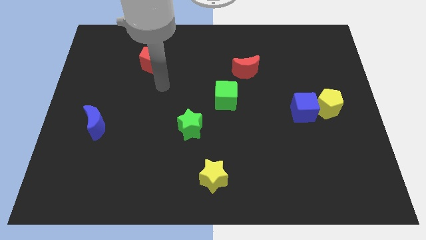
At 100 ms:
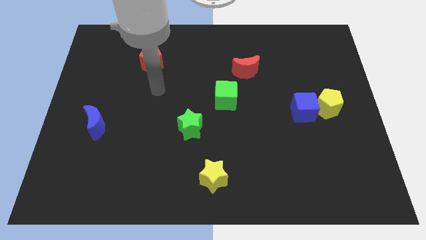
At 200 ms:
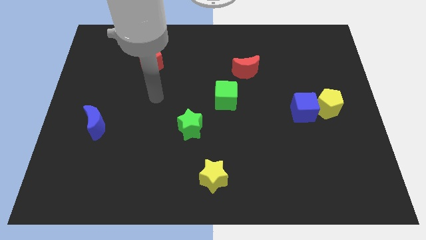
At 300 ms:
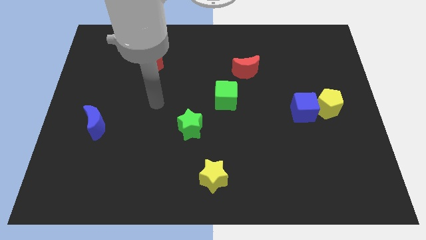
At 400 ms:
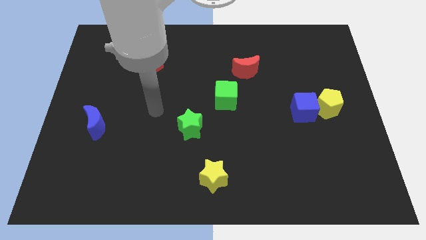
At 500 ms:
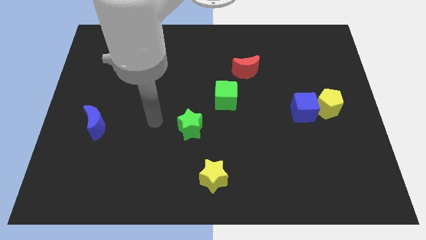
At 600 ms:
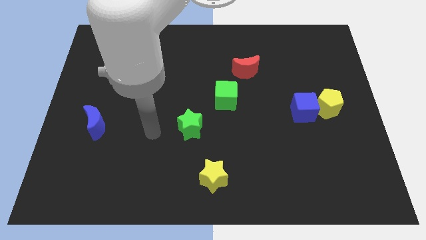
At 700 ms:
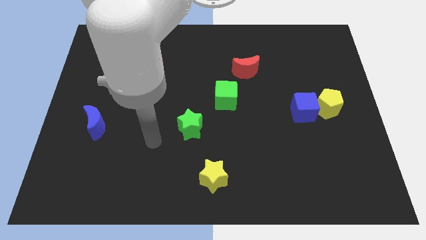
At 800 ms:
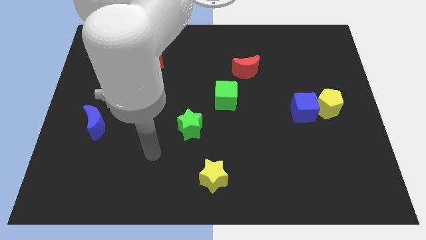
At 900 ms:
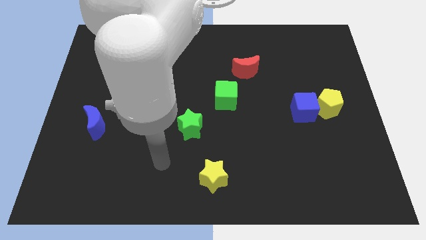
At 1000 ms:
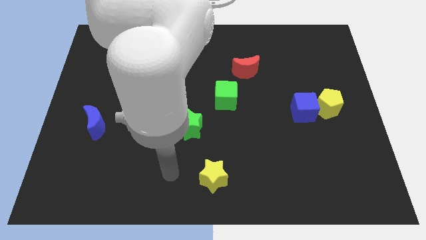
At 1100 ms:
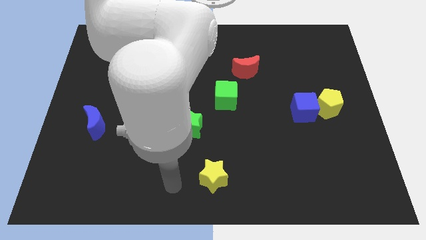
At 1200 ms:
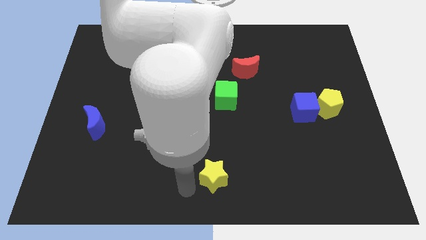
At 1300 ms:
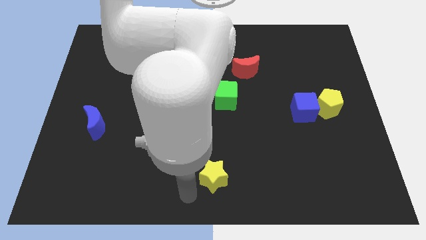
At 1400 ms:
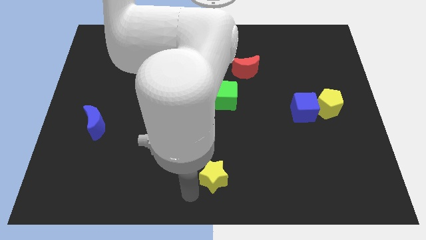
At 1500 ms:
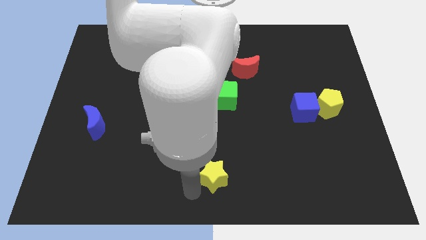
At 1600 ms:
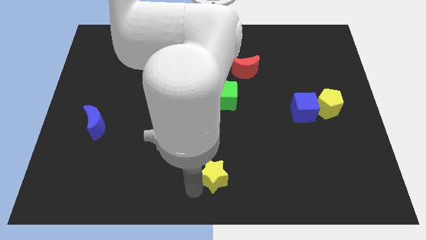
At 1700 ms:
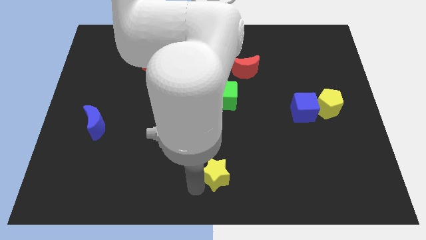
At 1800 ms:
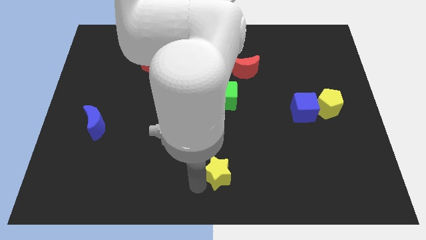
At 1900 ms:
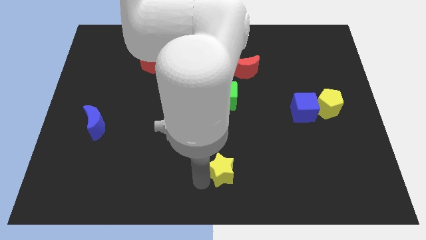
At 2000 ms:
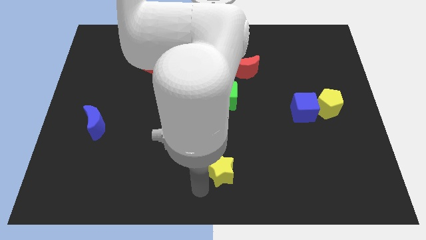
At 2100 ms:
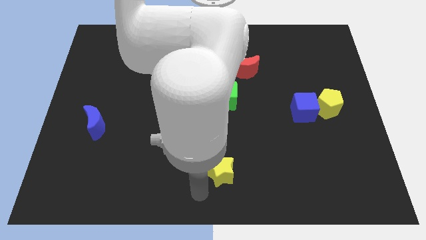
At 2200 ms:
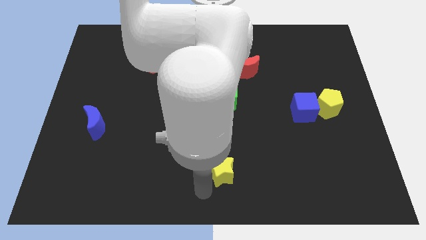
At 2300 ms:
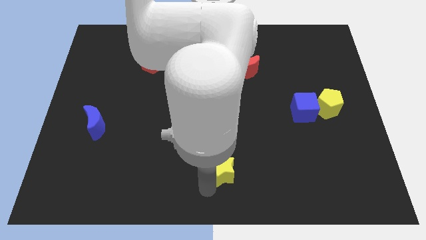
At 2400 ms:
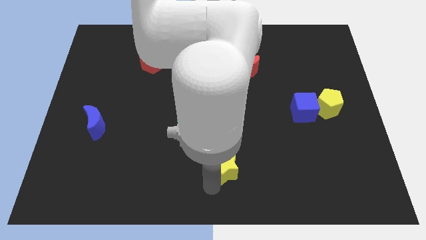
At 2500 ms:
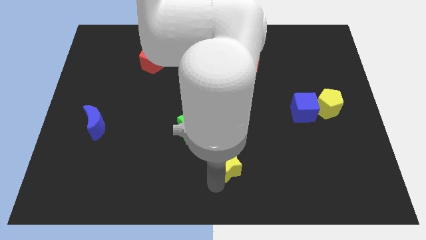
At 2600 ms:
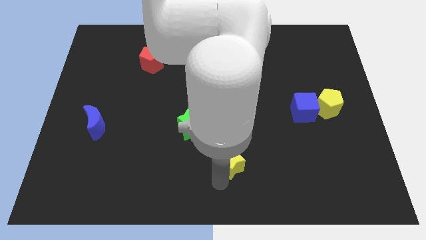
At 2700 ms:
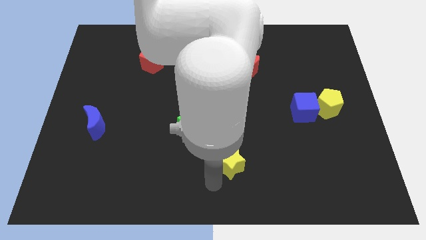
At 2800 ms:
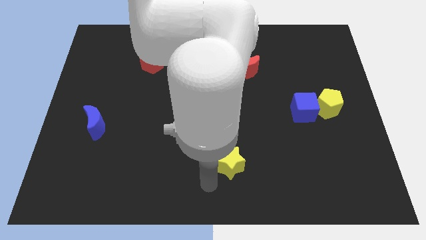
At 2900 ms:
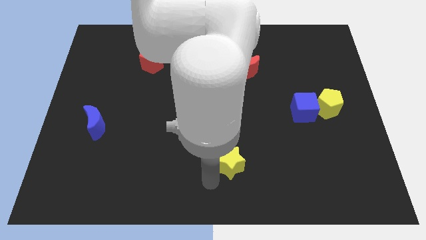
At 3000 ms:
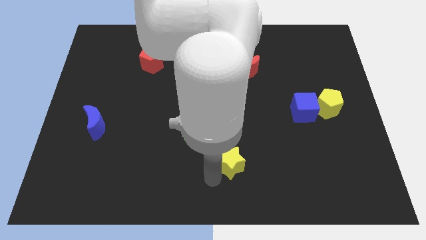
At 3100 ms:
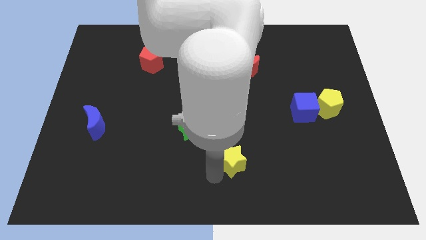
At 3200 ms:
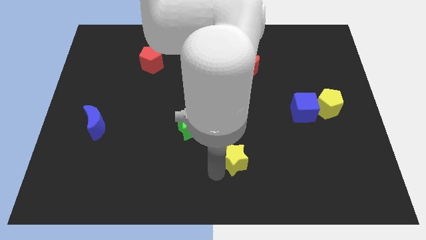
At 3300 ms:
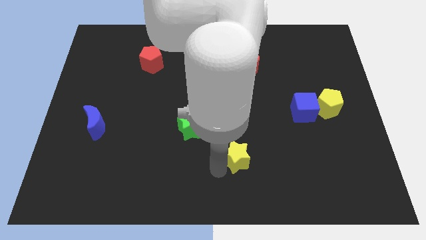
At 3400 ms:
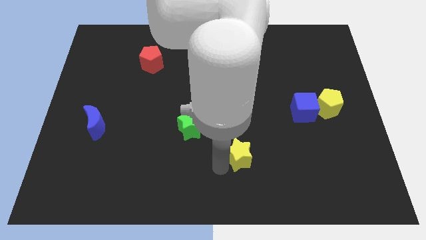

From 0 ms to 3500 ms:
push the yellow star a little upwards and to the right diagonally

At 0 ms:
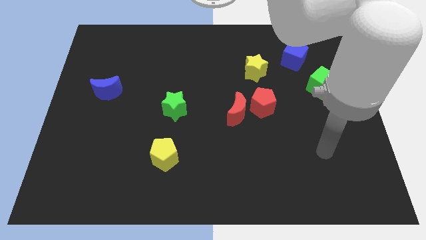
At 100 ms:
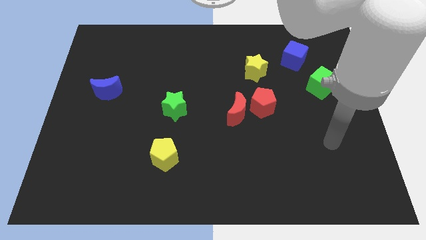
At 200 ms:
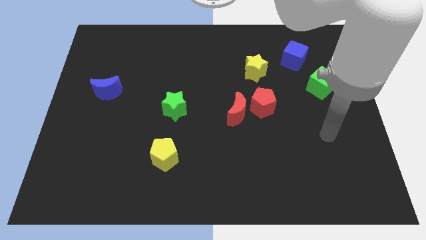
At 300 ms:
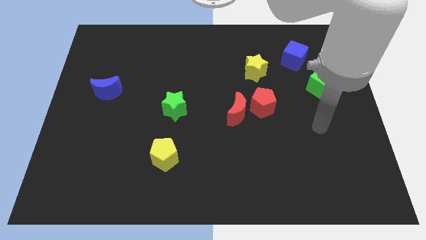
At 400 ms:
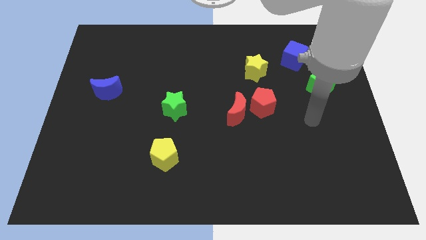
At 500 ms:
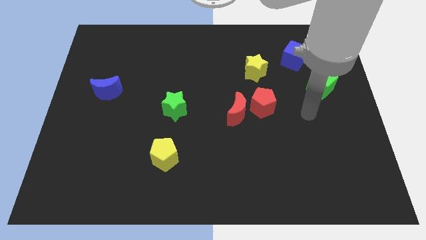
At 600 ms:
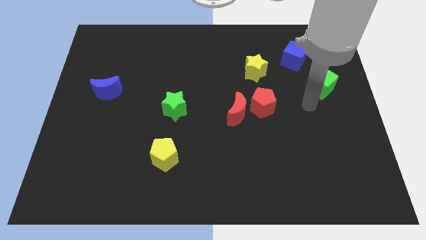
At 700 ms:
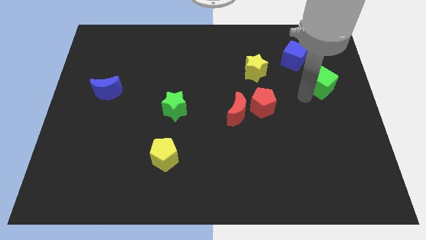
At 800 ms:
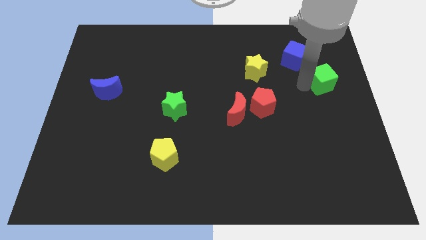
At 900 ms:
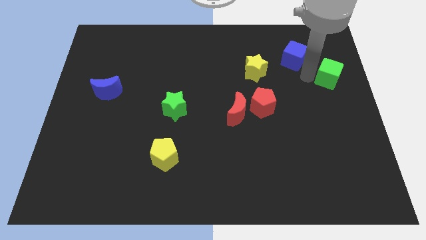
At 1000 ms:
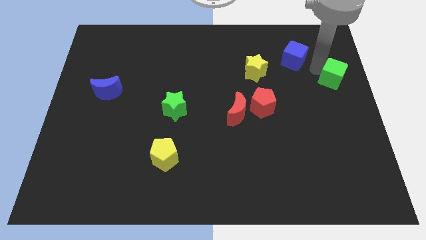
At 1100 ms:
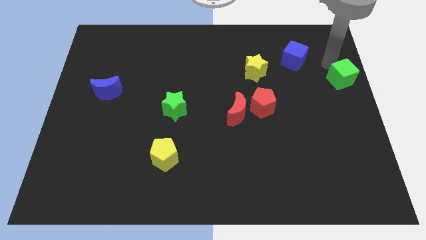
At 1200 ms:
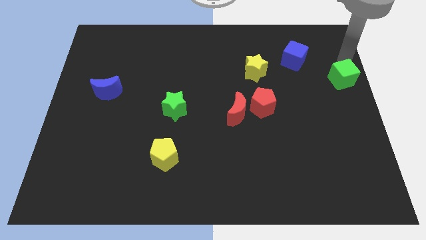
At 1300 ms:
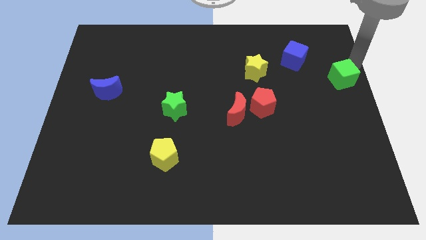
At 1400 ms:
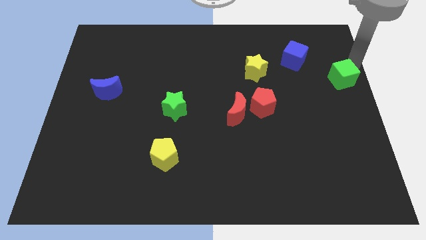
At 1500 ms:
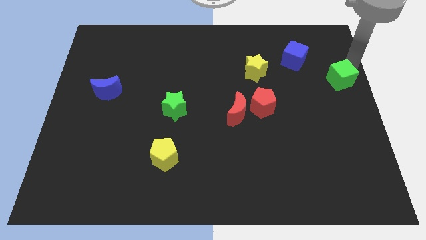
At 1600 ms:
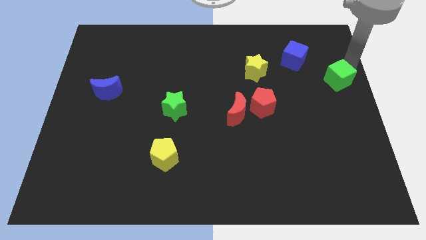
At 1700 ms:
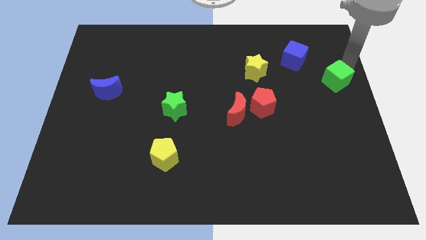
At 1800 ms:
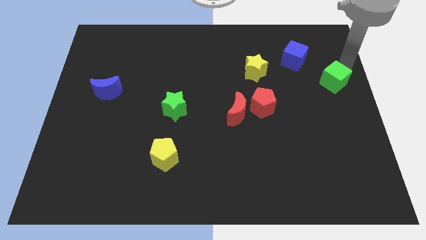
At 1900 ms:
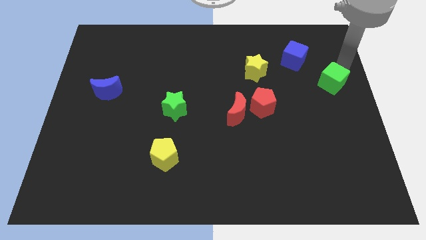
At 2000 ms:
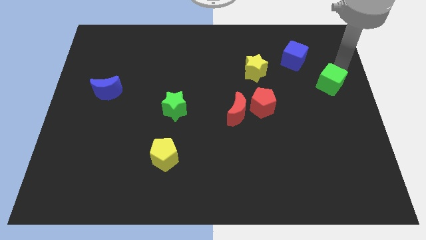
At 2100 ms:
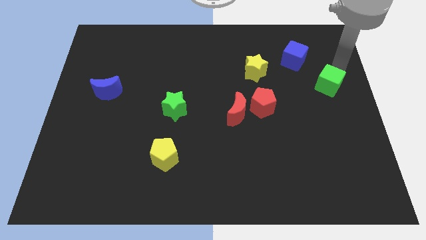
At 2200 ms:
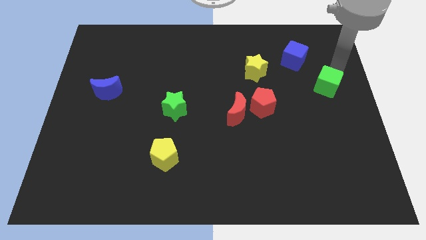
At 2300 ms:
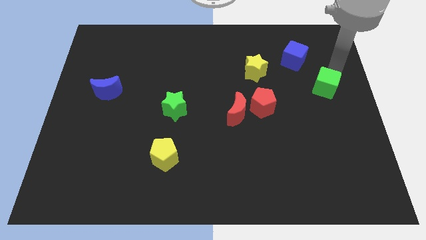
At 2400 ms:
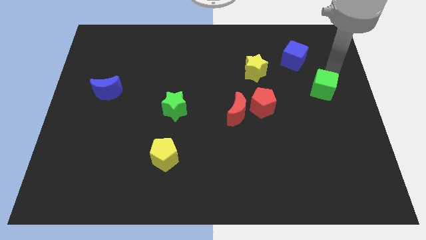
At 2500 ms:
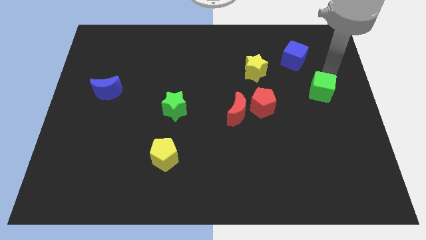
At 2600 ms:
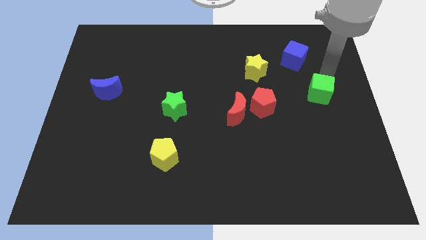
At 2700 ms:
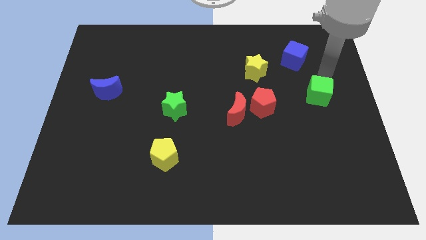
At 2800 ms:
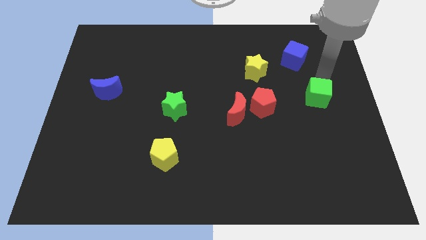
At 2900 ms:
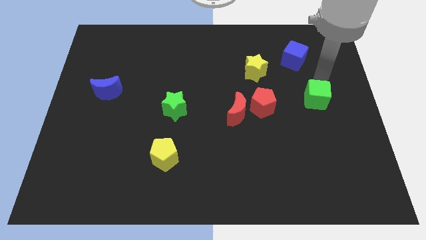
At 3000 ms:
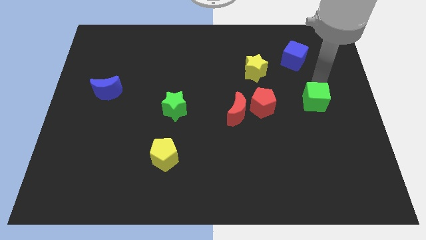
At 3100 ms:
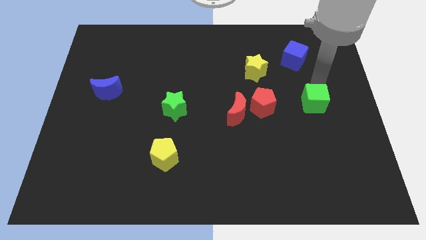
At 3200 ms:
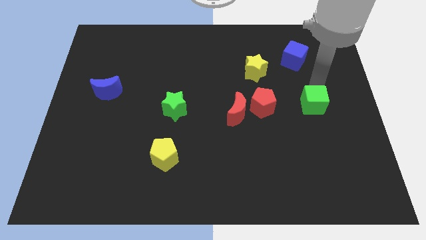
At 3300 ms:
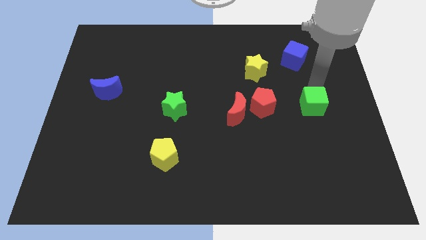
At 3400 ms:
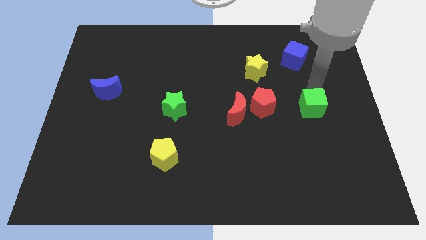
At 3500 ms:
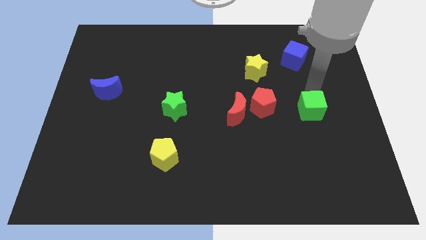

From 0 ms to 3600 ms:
slightly slide the green cube downwards

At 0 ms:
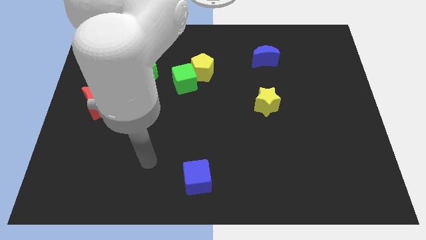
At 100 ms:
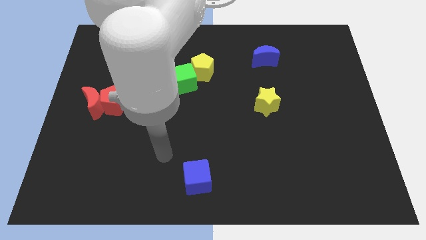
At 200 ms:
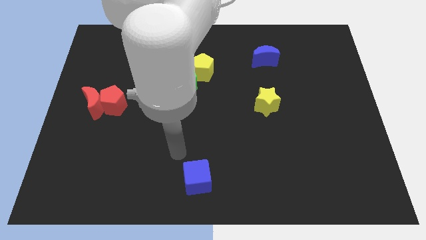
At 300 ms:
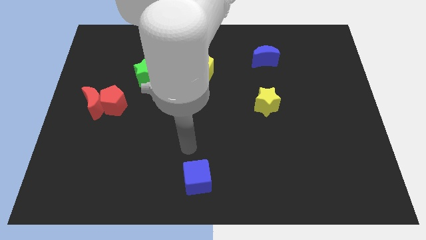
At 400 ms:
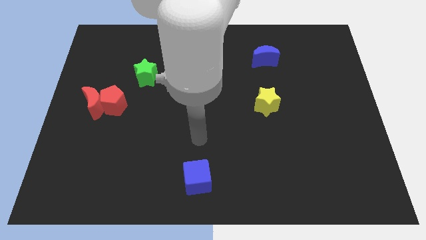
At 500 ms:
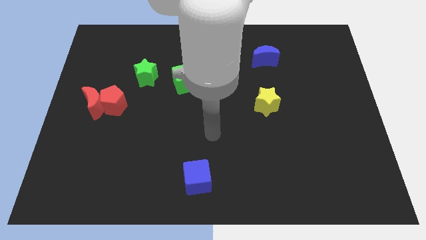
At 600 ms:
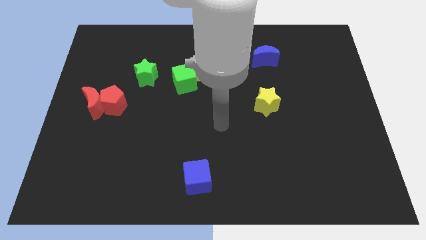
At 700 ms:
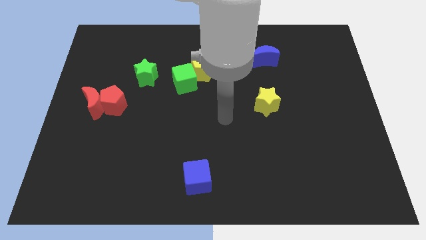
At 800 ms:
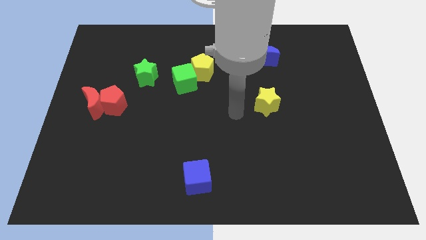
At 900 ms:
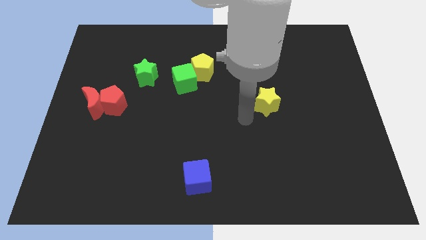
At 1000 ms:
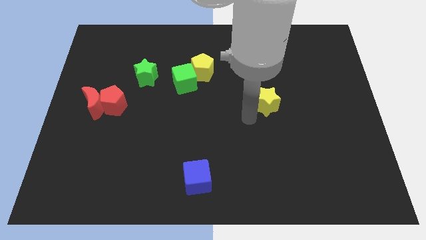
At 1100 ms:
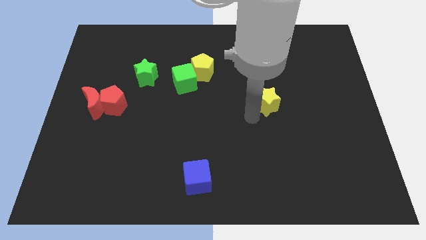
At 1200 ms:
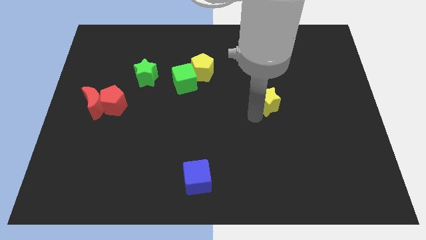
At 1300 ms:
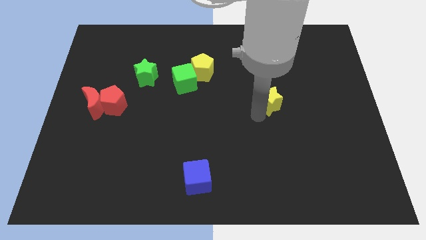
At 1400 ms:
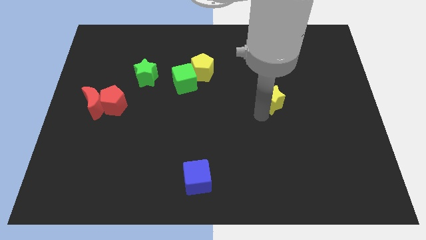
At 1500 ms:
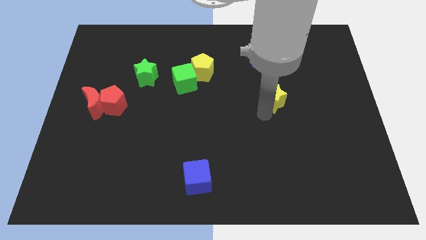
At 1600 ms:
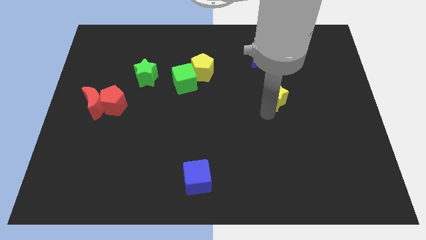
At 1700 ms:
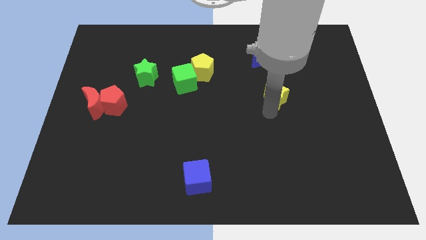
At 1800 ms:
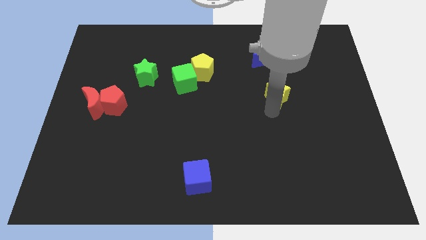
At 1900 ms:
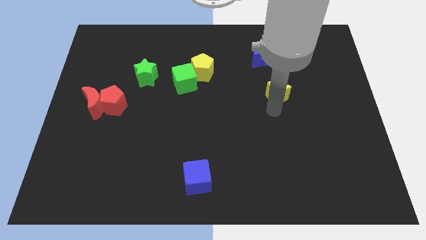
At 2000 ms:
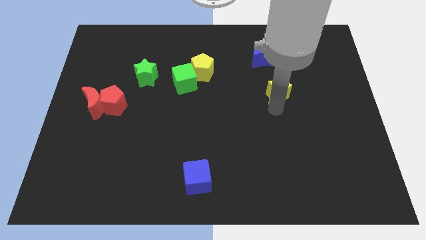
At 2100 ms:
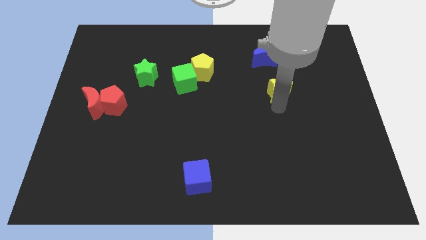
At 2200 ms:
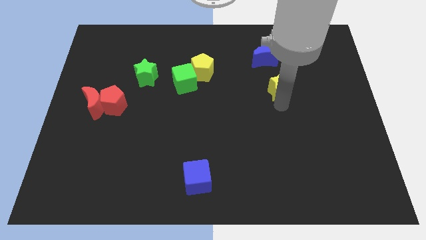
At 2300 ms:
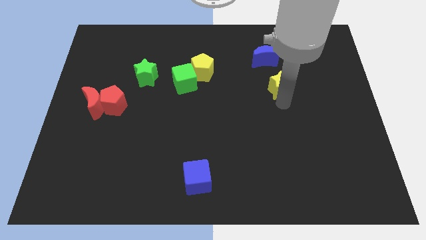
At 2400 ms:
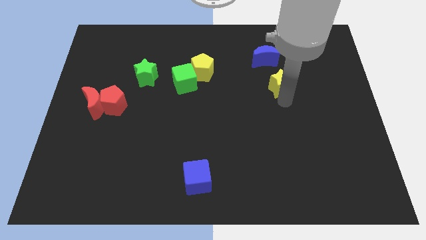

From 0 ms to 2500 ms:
move the yellow star somewhat upwards and to the right
